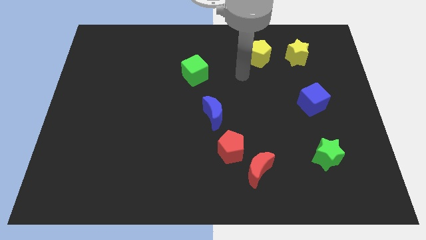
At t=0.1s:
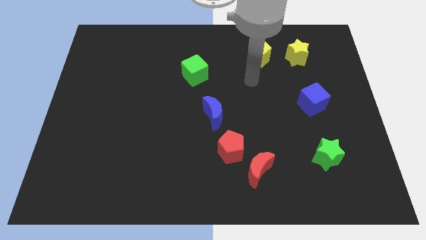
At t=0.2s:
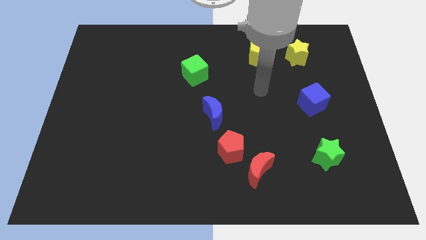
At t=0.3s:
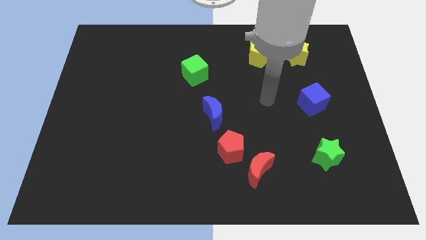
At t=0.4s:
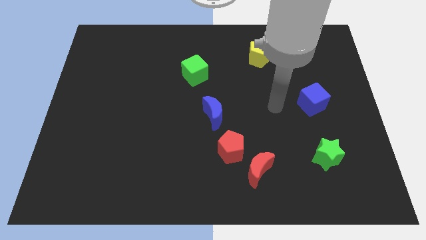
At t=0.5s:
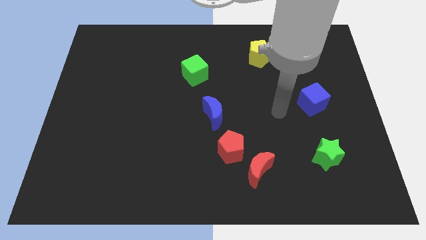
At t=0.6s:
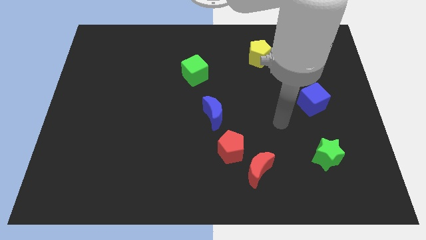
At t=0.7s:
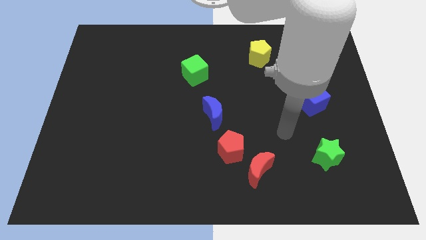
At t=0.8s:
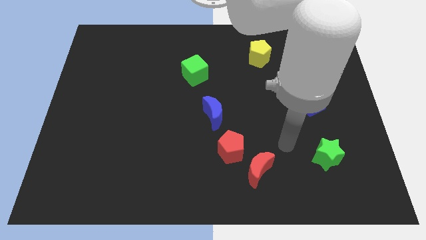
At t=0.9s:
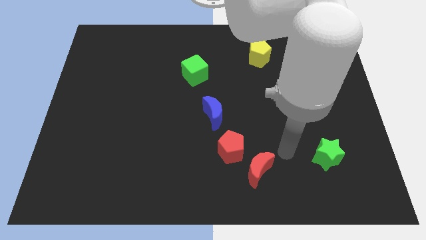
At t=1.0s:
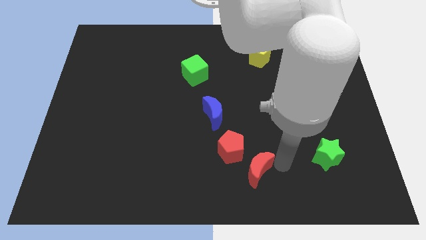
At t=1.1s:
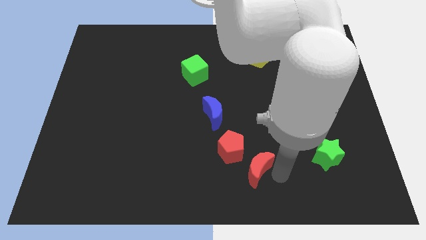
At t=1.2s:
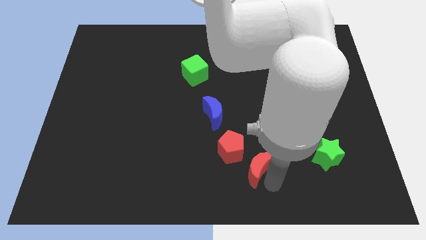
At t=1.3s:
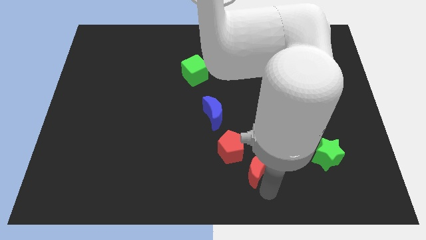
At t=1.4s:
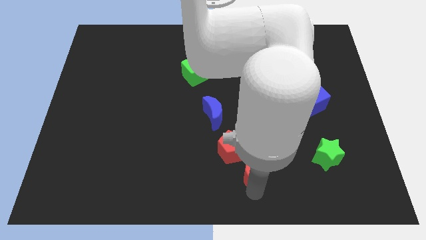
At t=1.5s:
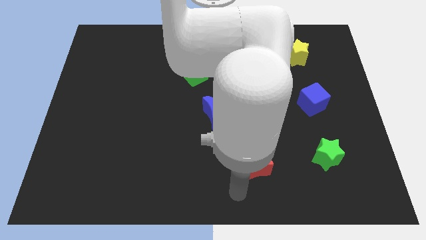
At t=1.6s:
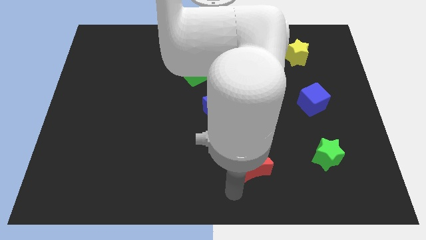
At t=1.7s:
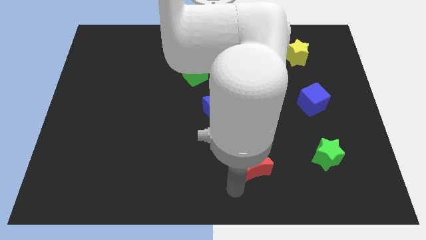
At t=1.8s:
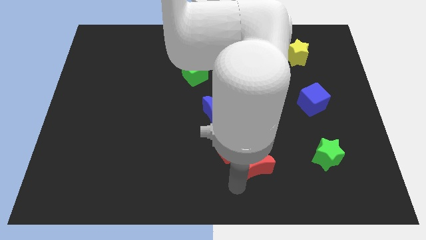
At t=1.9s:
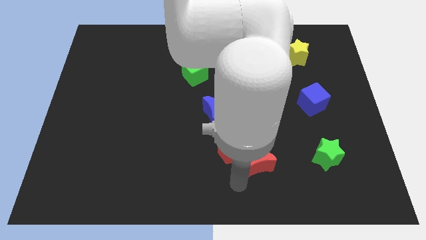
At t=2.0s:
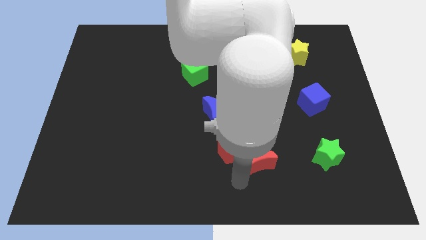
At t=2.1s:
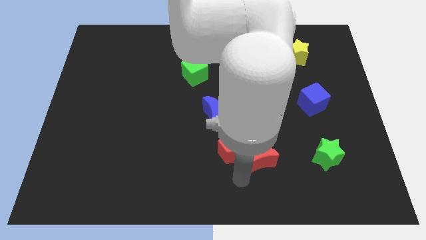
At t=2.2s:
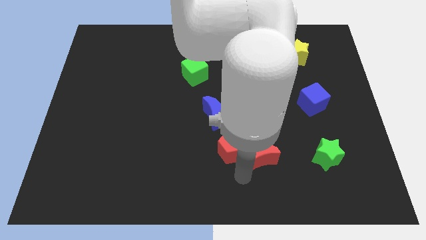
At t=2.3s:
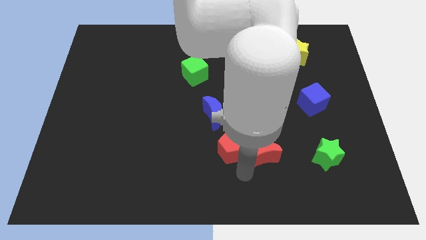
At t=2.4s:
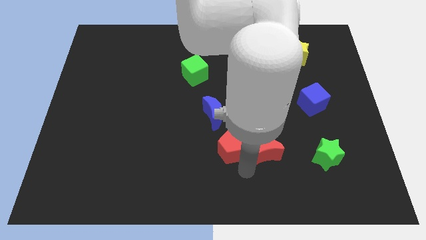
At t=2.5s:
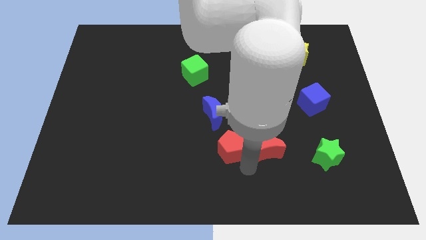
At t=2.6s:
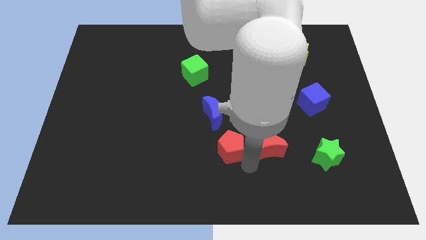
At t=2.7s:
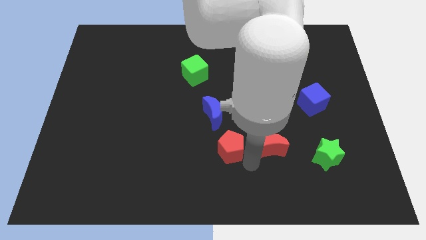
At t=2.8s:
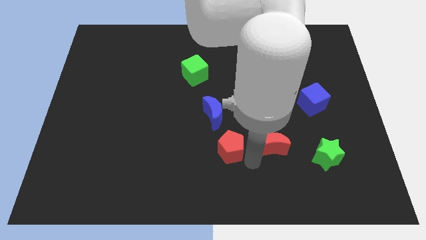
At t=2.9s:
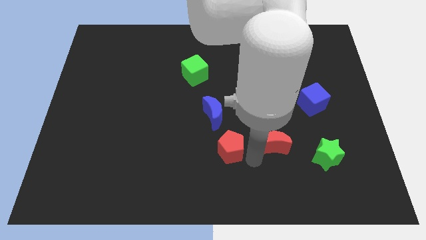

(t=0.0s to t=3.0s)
slide the red moon upwards and to the right diagonally a bit

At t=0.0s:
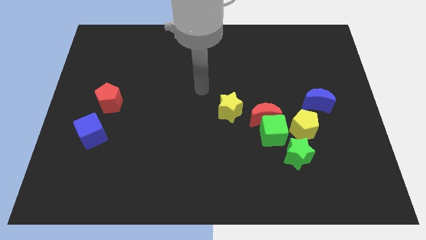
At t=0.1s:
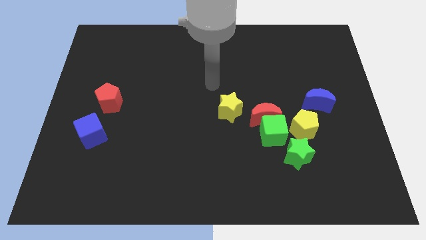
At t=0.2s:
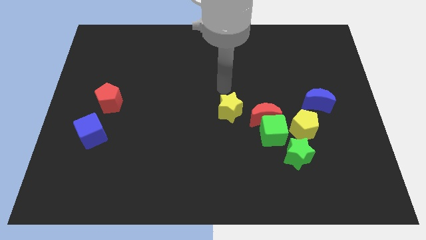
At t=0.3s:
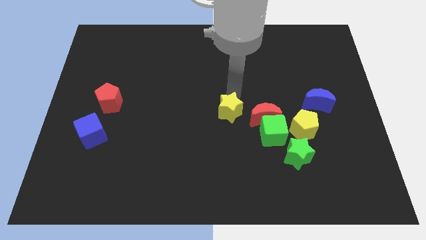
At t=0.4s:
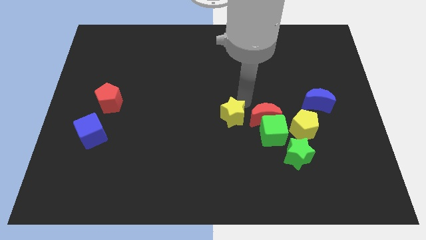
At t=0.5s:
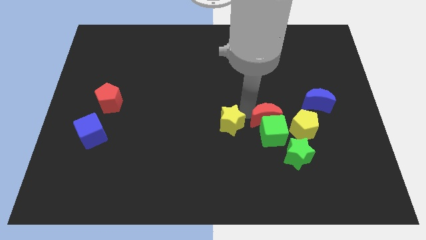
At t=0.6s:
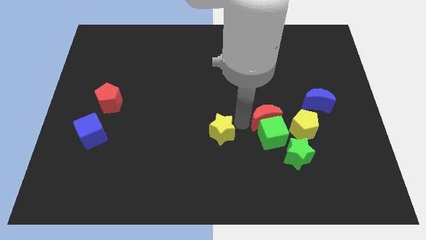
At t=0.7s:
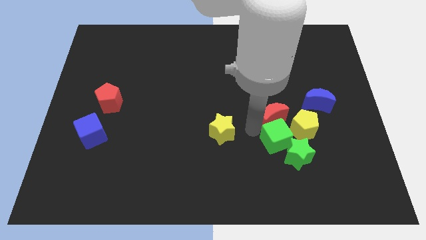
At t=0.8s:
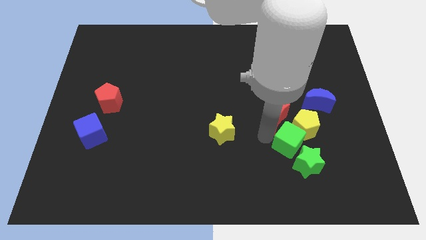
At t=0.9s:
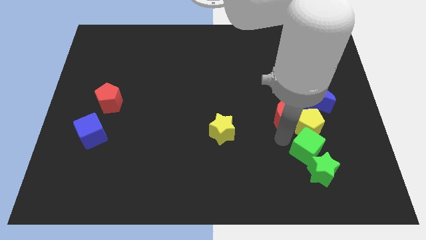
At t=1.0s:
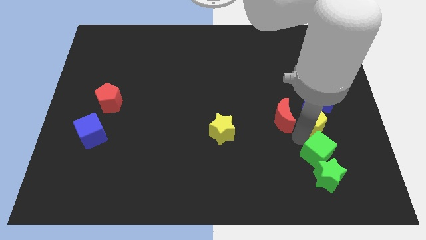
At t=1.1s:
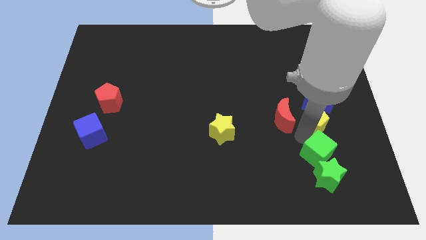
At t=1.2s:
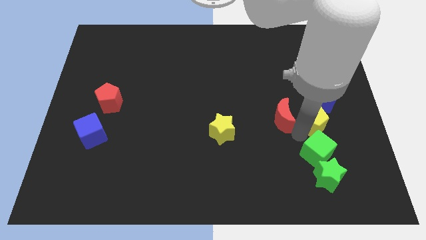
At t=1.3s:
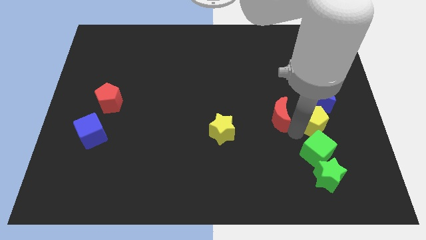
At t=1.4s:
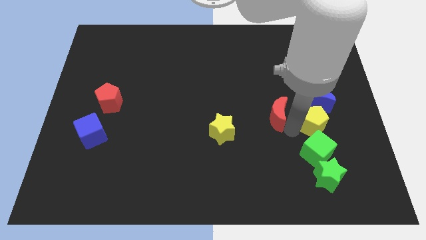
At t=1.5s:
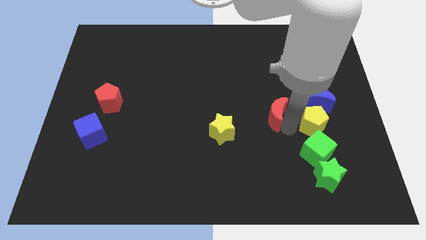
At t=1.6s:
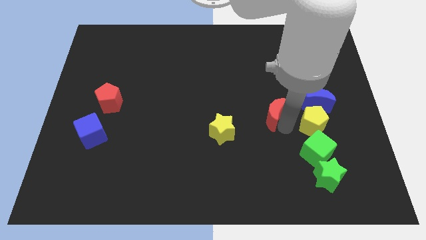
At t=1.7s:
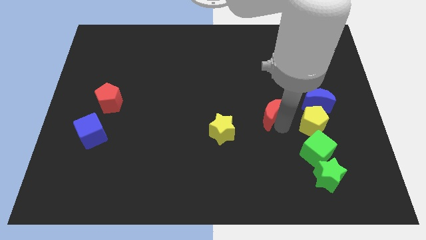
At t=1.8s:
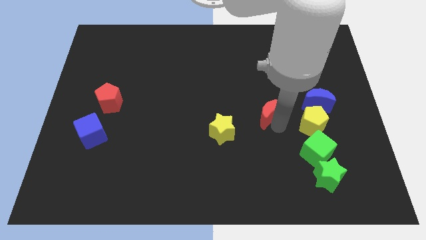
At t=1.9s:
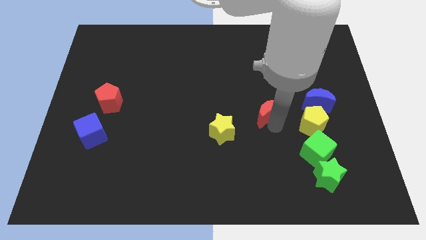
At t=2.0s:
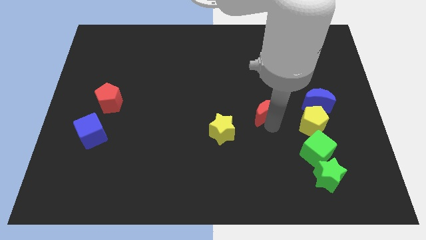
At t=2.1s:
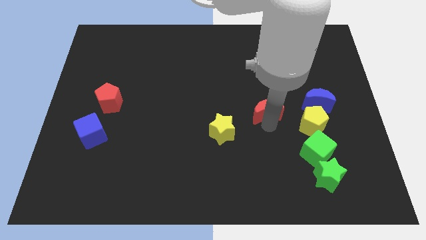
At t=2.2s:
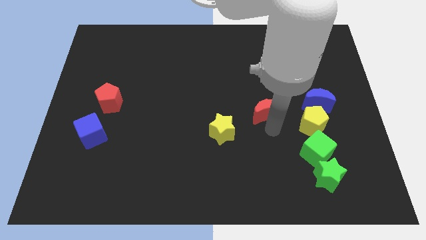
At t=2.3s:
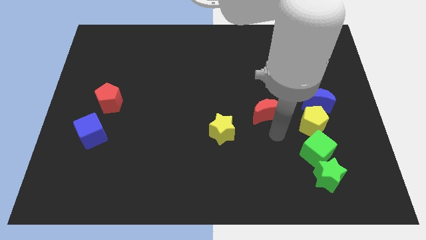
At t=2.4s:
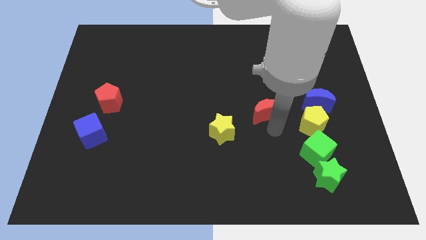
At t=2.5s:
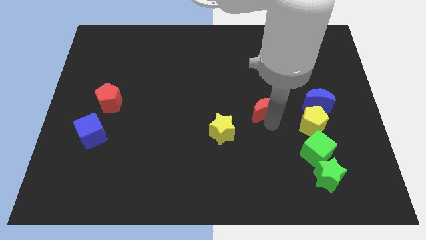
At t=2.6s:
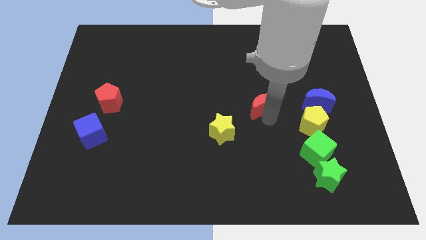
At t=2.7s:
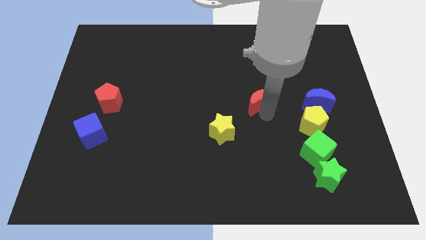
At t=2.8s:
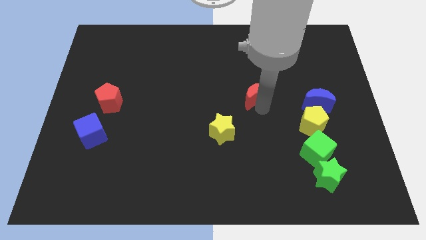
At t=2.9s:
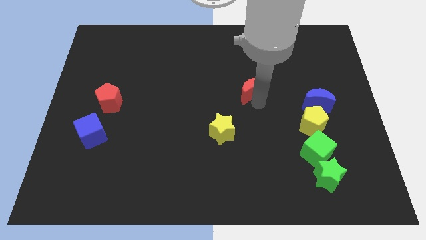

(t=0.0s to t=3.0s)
move the red moon slightly upwards

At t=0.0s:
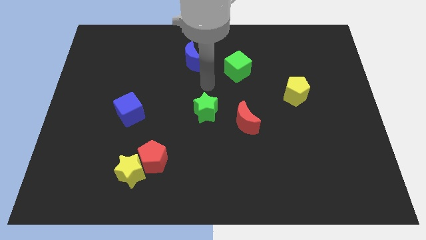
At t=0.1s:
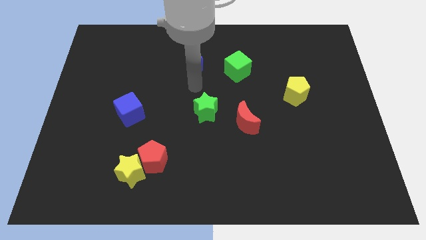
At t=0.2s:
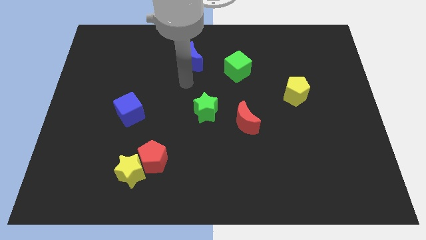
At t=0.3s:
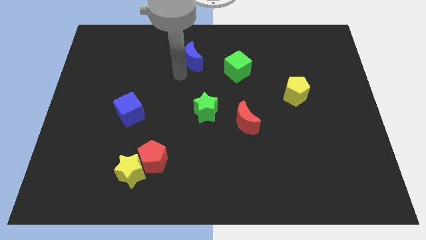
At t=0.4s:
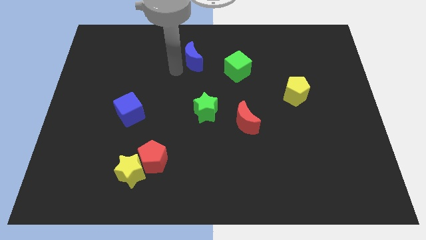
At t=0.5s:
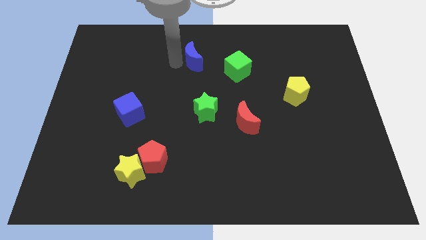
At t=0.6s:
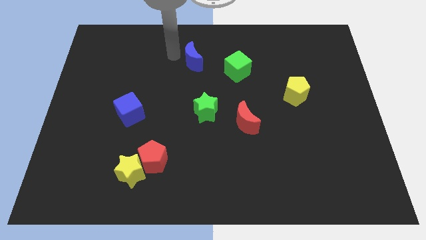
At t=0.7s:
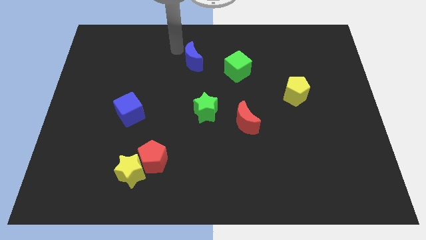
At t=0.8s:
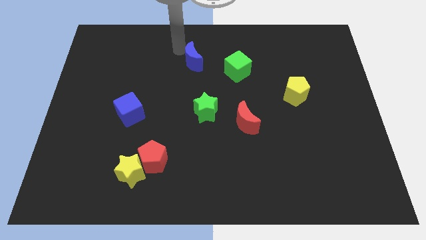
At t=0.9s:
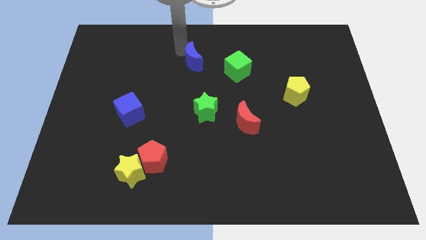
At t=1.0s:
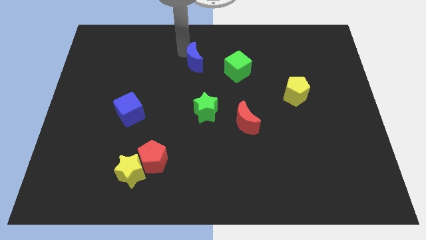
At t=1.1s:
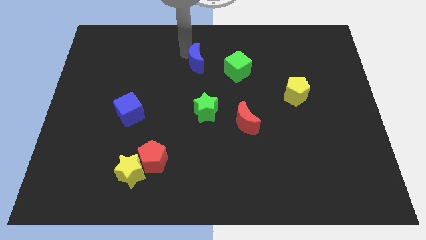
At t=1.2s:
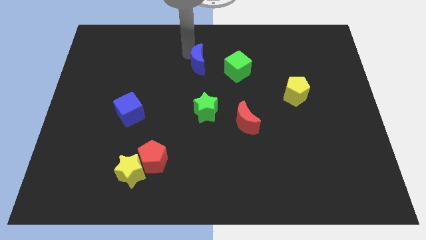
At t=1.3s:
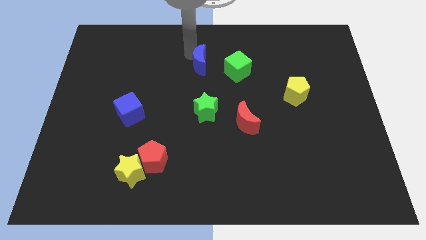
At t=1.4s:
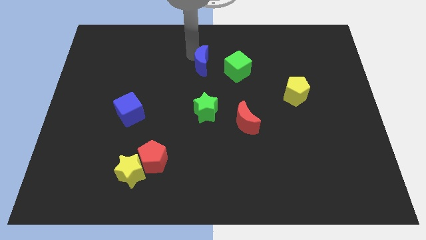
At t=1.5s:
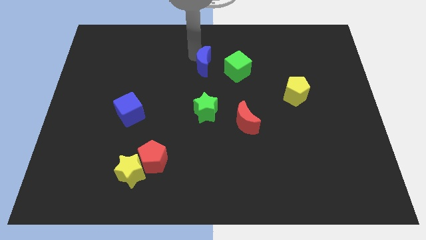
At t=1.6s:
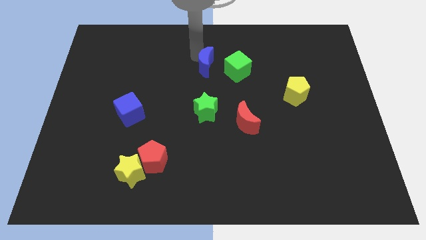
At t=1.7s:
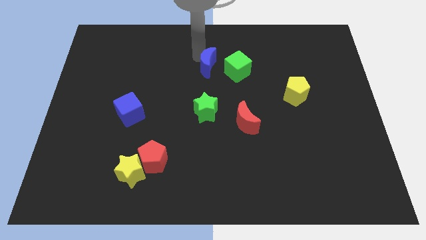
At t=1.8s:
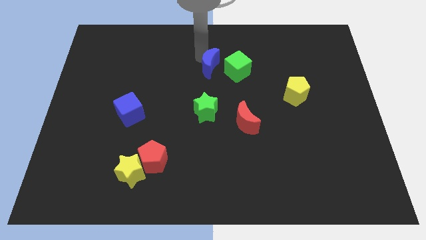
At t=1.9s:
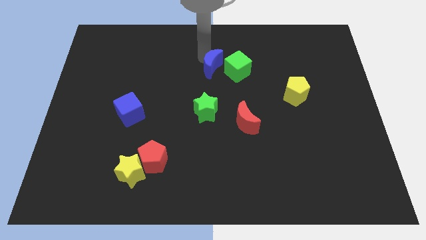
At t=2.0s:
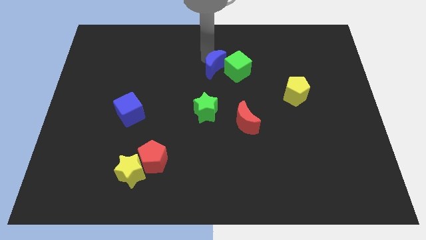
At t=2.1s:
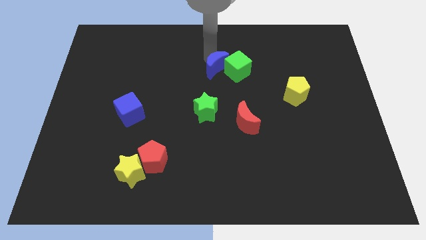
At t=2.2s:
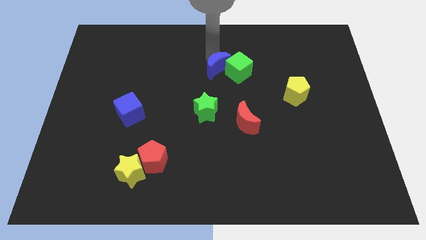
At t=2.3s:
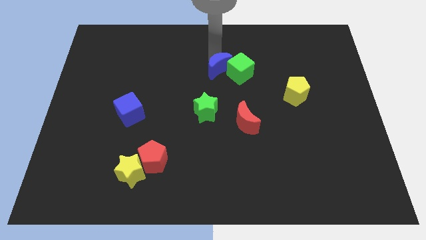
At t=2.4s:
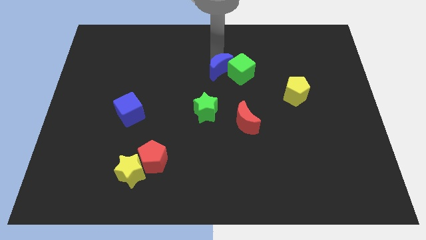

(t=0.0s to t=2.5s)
slide the blue moon down and then to the right a little bit

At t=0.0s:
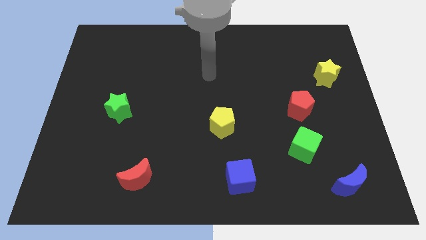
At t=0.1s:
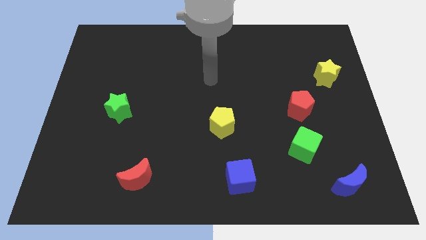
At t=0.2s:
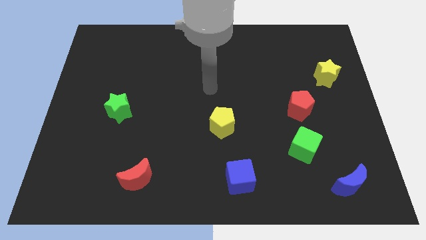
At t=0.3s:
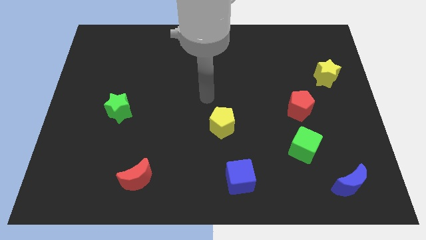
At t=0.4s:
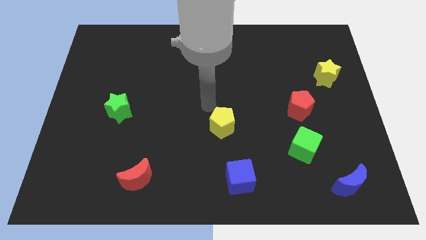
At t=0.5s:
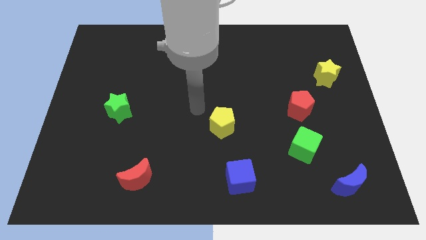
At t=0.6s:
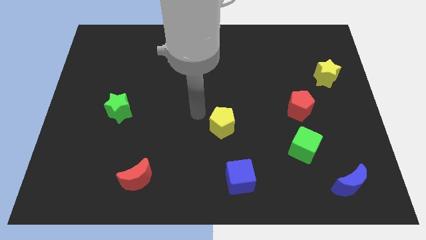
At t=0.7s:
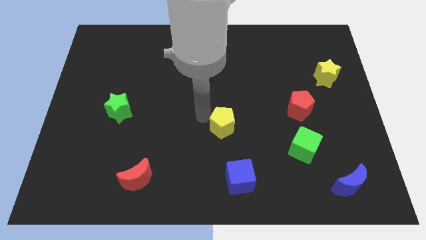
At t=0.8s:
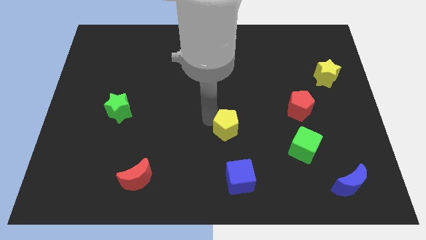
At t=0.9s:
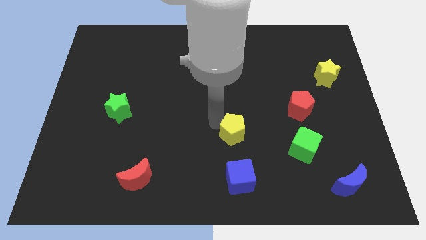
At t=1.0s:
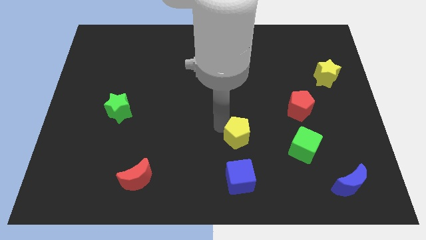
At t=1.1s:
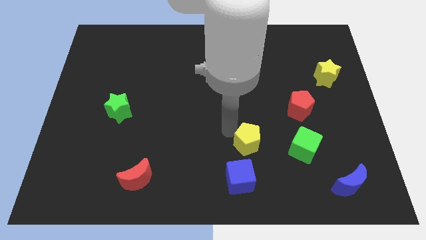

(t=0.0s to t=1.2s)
push the yellow pentagon a little bit down and right diagonally
